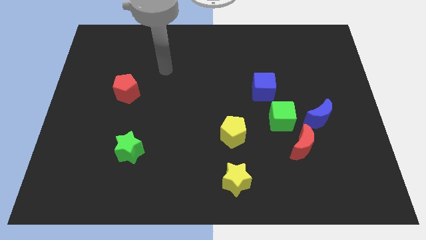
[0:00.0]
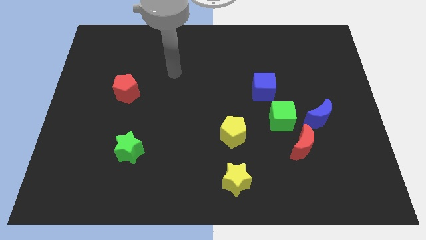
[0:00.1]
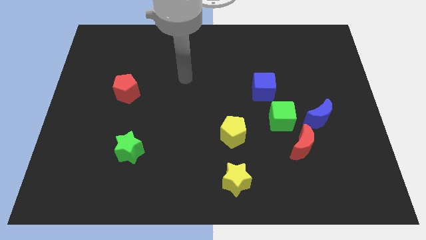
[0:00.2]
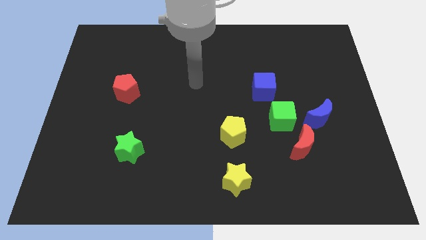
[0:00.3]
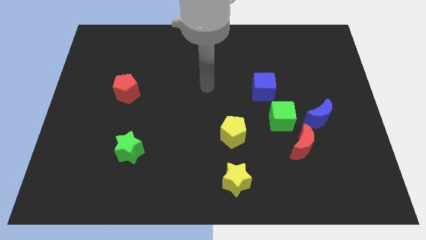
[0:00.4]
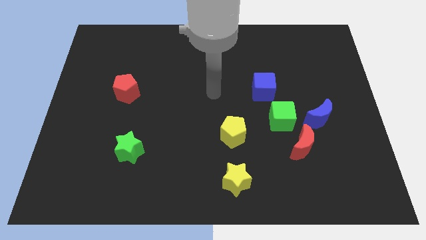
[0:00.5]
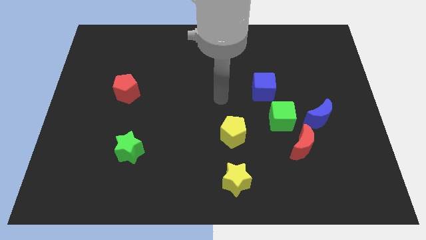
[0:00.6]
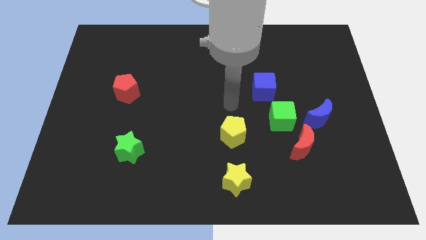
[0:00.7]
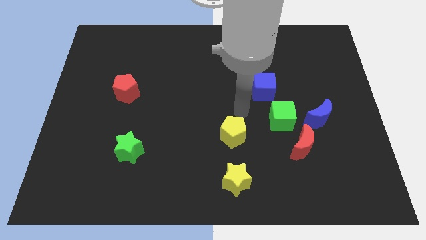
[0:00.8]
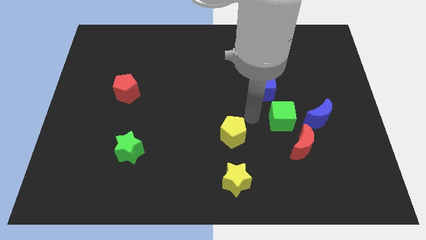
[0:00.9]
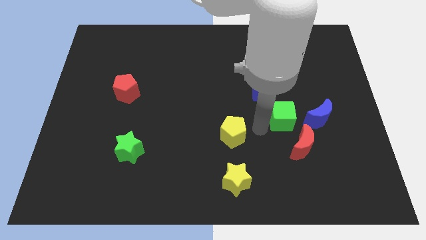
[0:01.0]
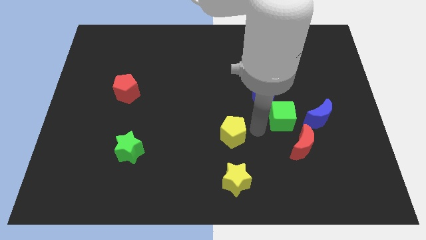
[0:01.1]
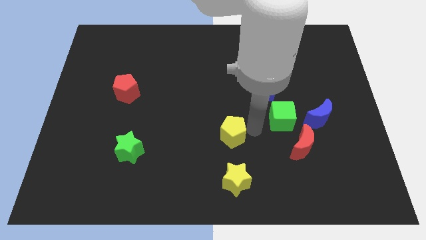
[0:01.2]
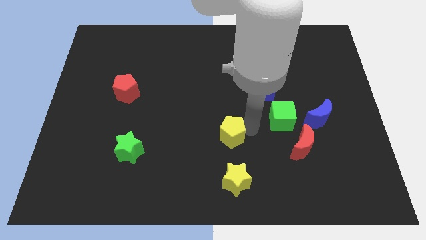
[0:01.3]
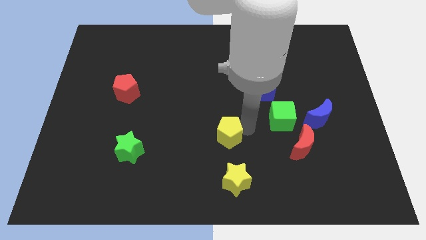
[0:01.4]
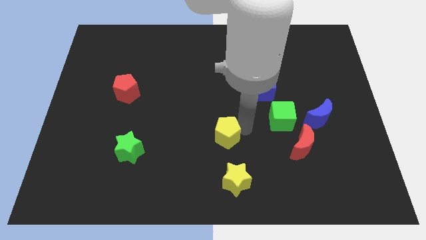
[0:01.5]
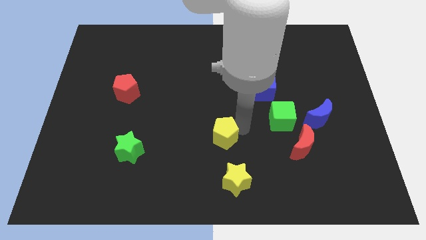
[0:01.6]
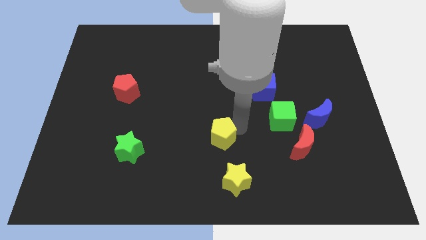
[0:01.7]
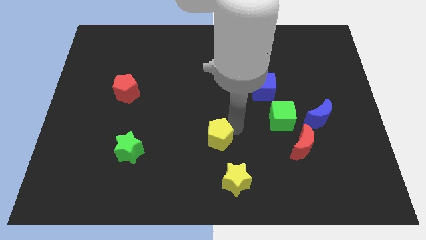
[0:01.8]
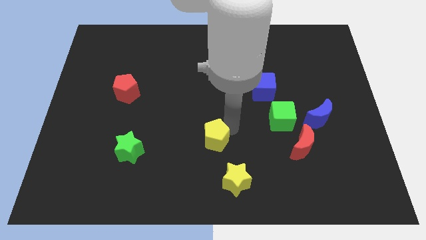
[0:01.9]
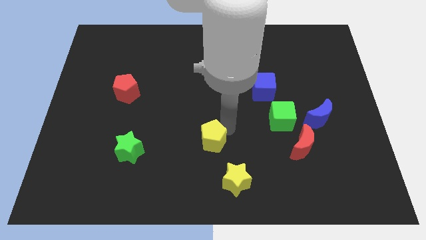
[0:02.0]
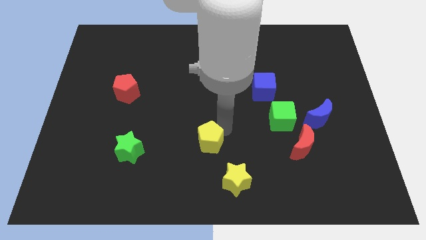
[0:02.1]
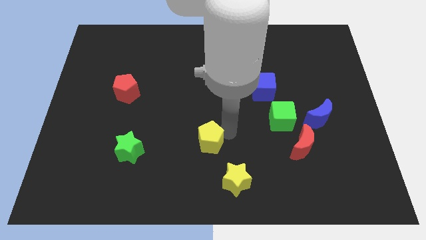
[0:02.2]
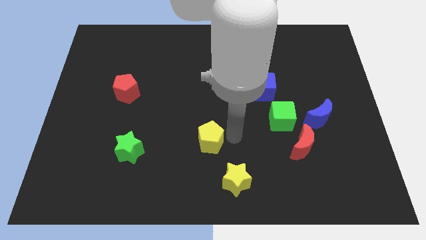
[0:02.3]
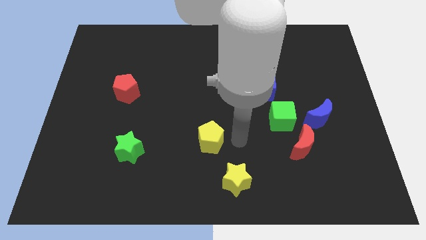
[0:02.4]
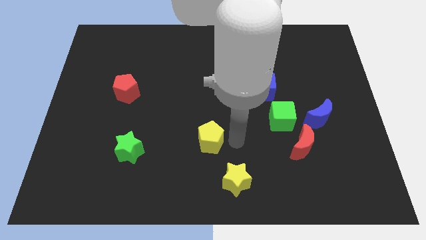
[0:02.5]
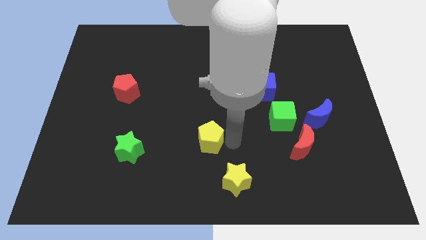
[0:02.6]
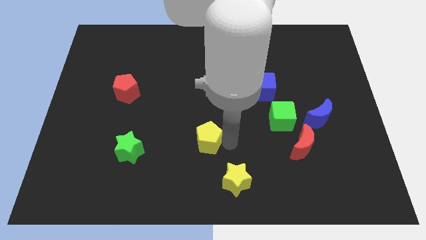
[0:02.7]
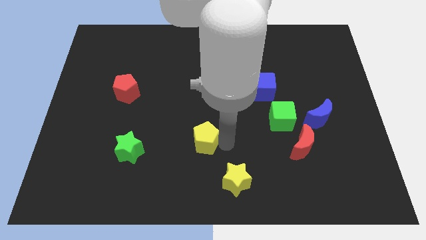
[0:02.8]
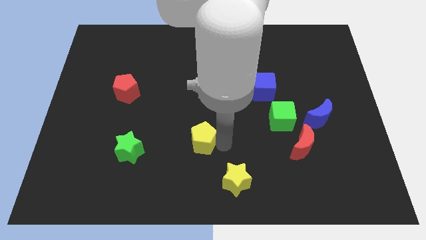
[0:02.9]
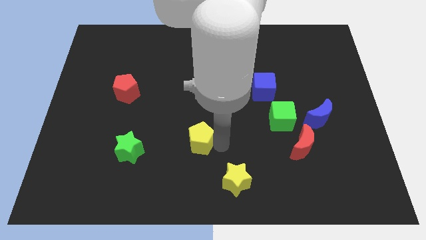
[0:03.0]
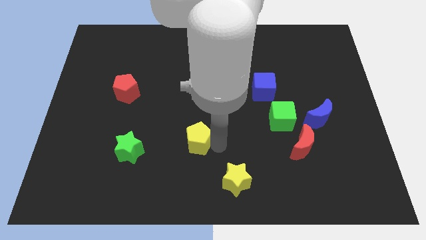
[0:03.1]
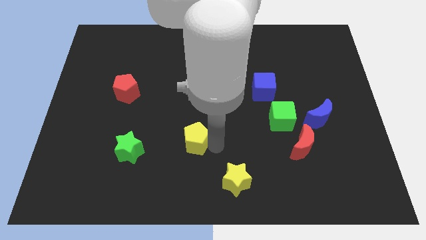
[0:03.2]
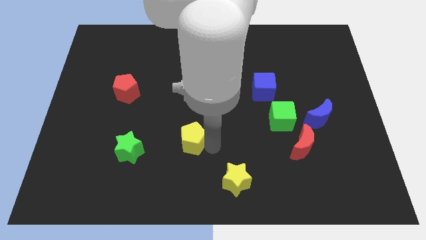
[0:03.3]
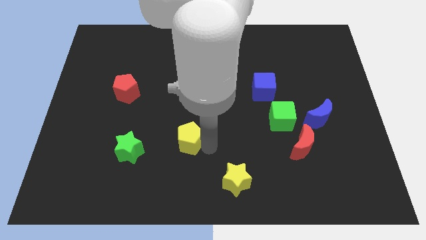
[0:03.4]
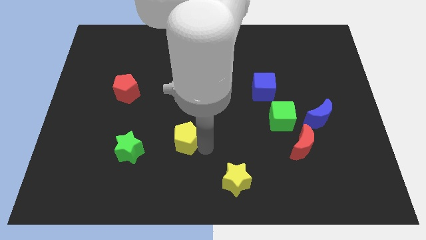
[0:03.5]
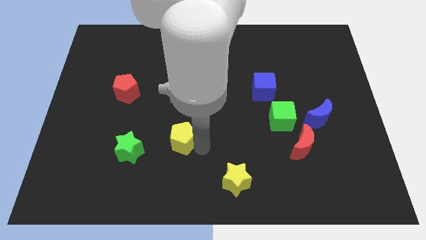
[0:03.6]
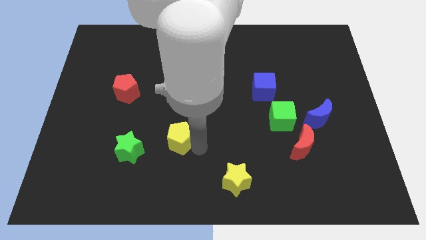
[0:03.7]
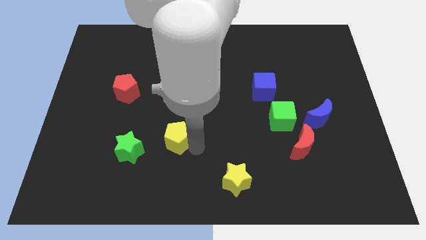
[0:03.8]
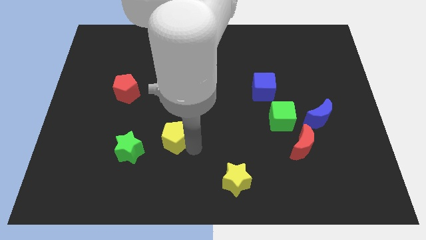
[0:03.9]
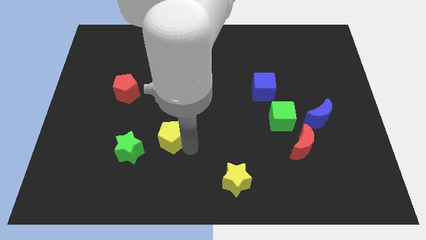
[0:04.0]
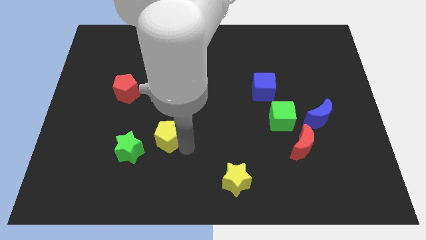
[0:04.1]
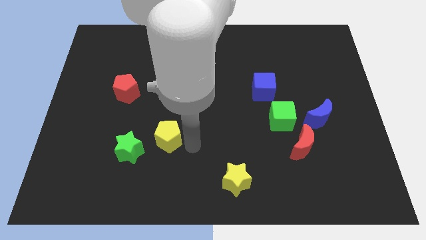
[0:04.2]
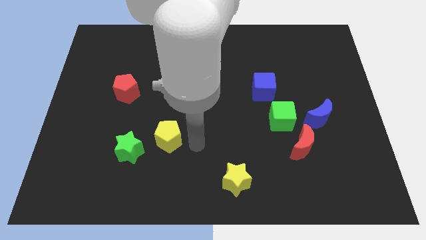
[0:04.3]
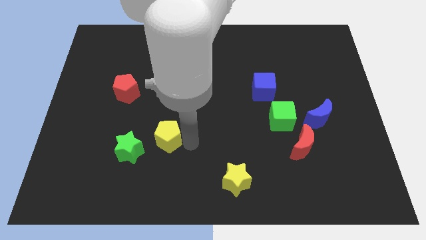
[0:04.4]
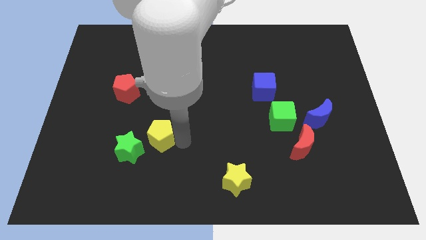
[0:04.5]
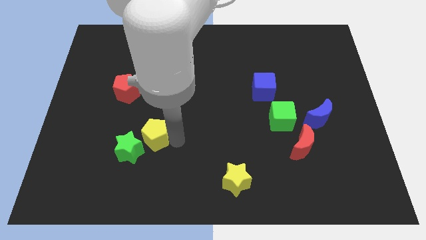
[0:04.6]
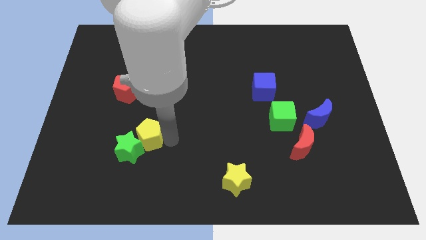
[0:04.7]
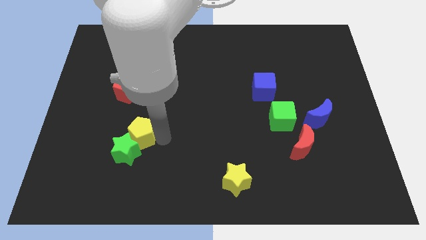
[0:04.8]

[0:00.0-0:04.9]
move the yellow pentagon left

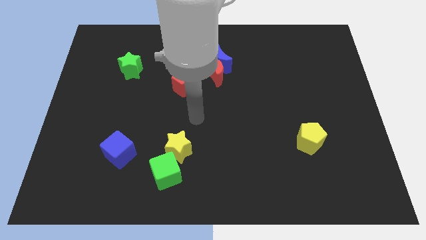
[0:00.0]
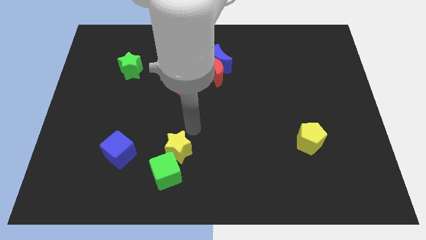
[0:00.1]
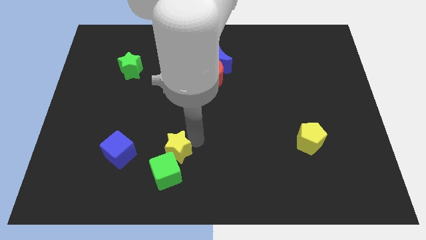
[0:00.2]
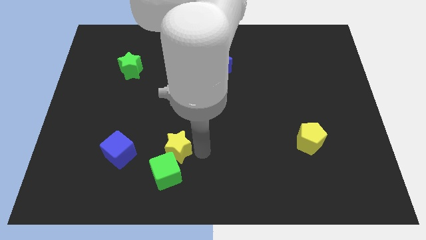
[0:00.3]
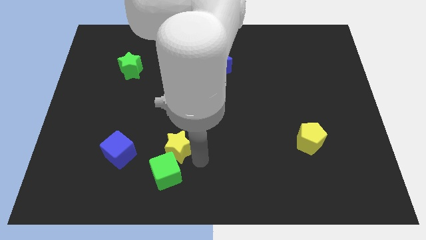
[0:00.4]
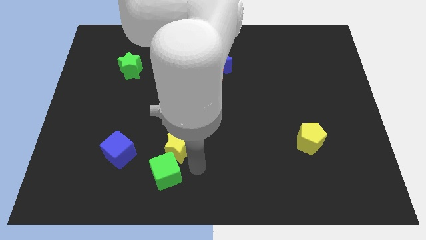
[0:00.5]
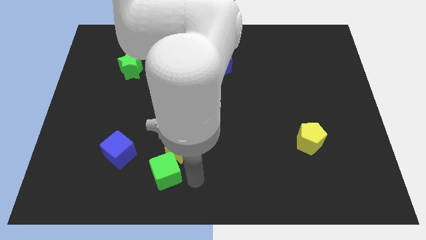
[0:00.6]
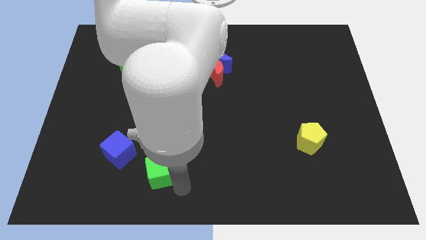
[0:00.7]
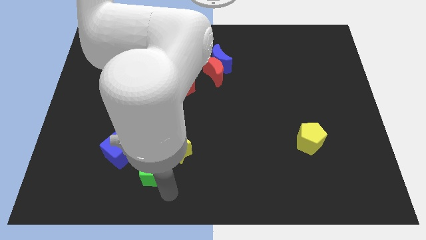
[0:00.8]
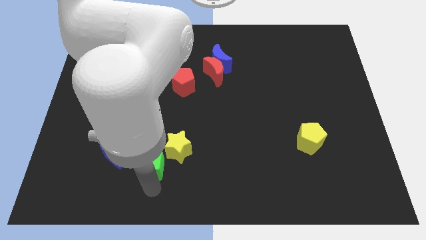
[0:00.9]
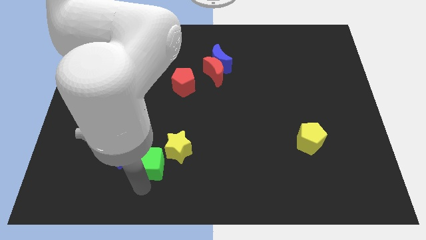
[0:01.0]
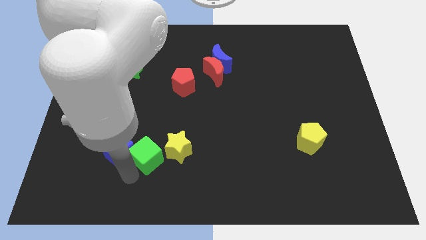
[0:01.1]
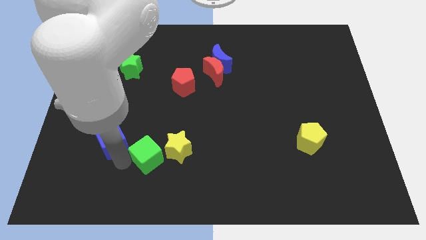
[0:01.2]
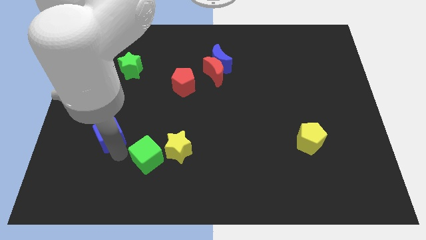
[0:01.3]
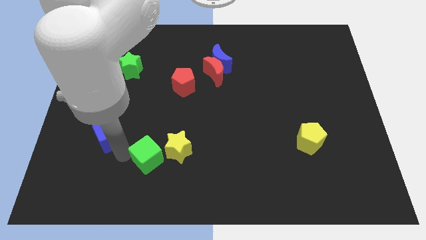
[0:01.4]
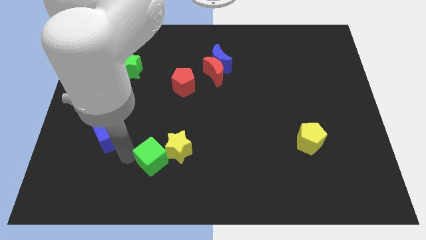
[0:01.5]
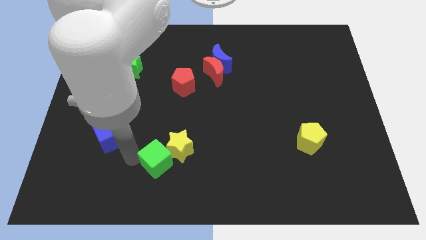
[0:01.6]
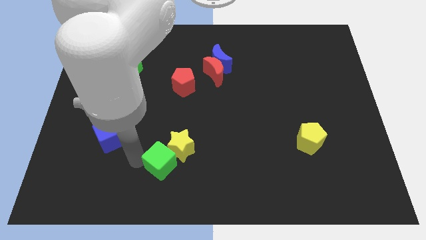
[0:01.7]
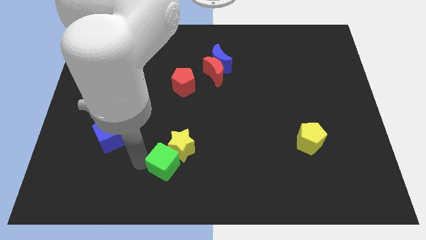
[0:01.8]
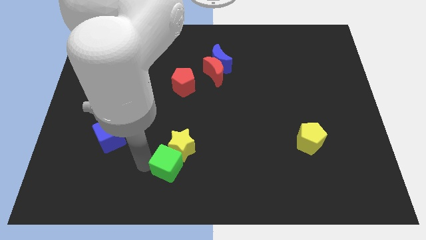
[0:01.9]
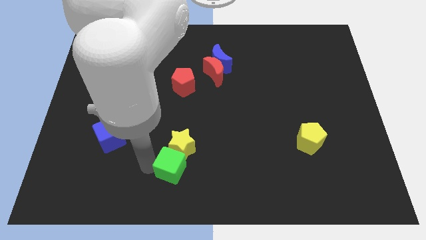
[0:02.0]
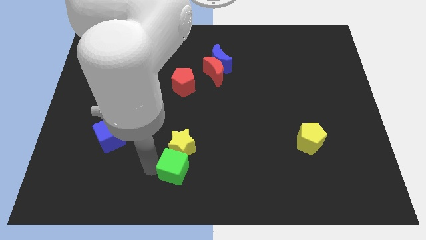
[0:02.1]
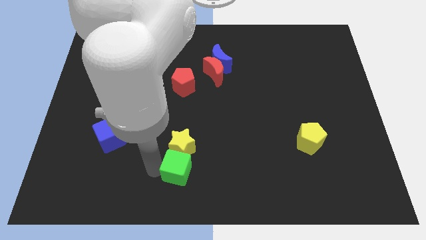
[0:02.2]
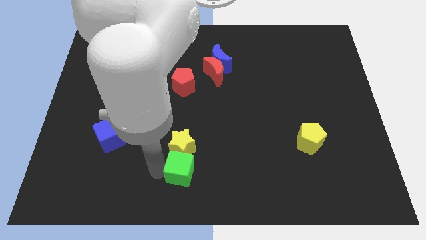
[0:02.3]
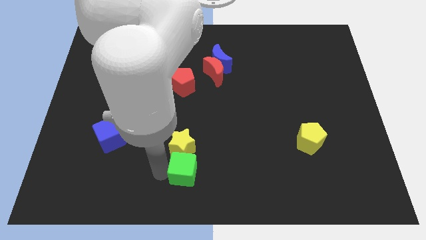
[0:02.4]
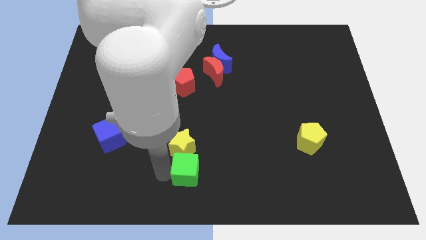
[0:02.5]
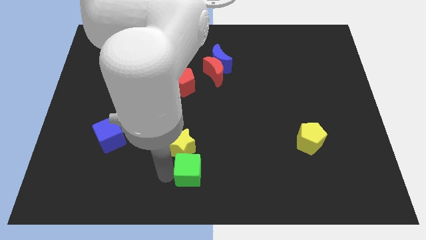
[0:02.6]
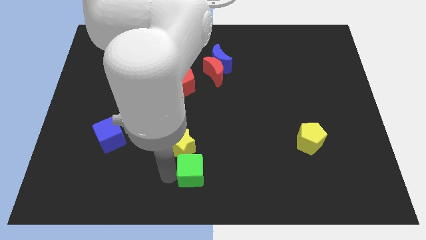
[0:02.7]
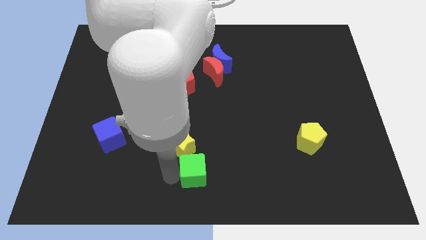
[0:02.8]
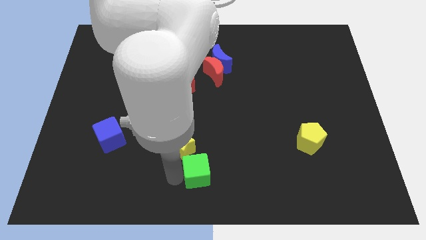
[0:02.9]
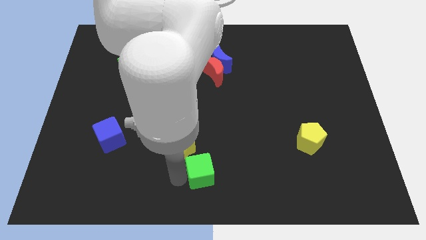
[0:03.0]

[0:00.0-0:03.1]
push the green cube right a little
